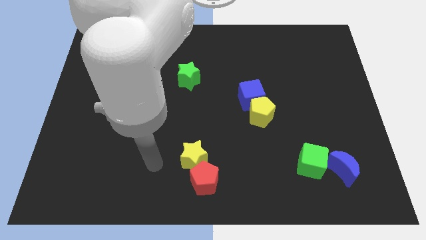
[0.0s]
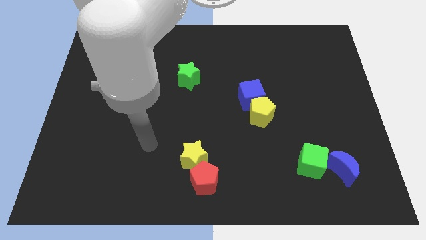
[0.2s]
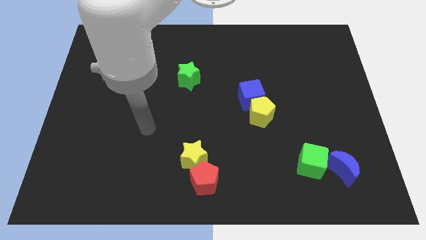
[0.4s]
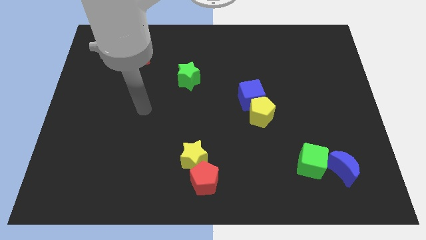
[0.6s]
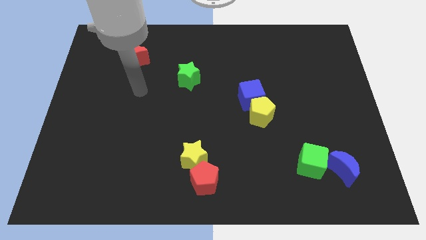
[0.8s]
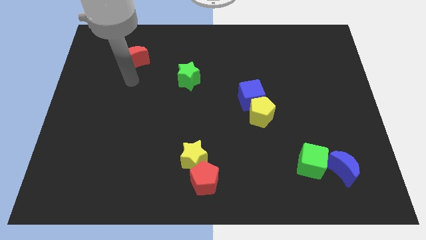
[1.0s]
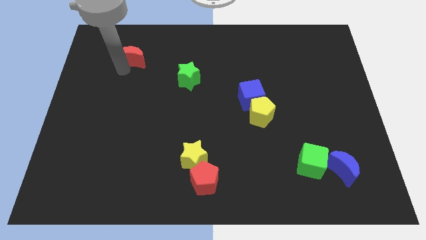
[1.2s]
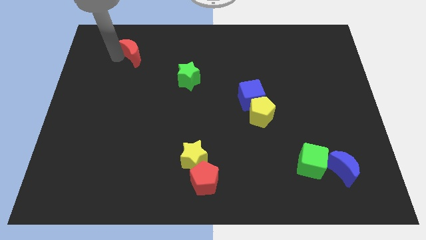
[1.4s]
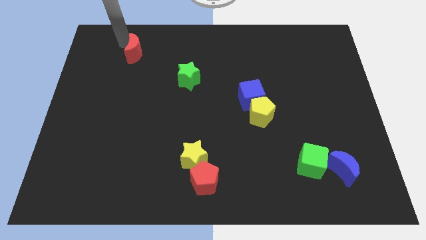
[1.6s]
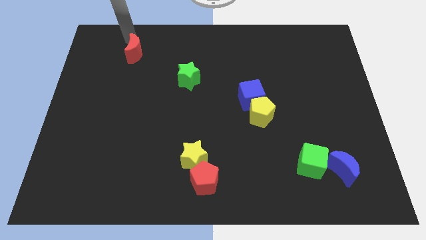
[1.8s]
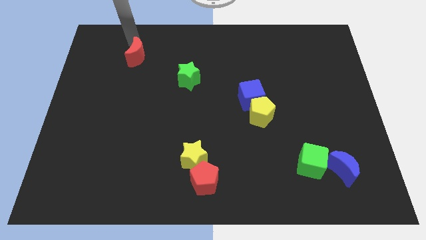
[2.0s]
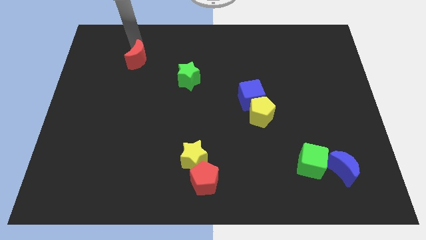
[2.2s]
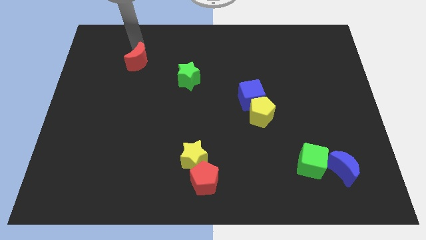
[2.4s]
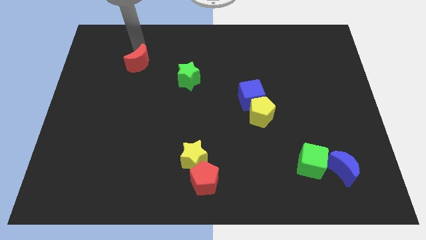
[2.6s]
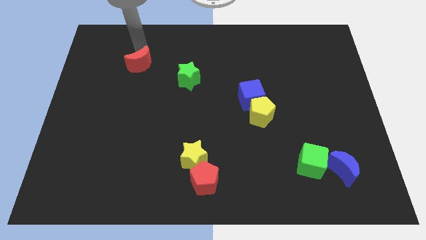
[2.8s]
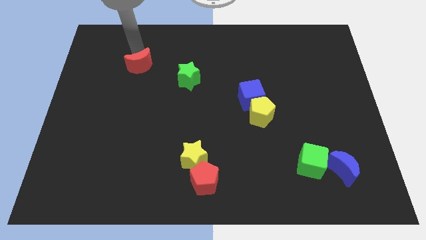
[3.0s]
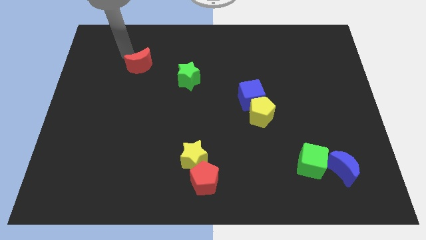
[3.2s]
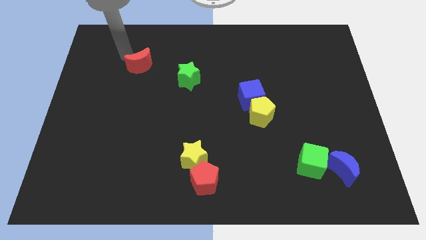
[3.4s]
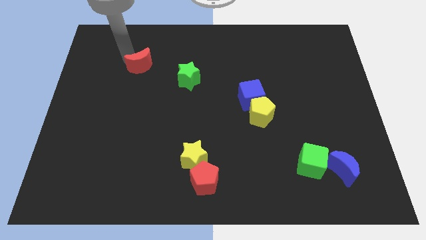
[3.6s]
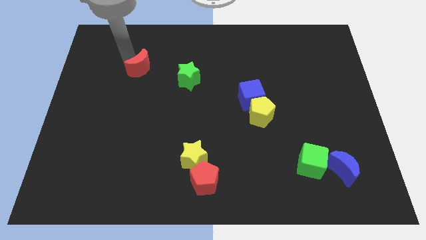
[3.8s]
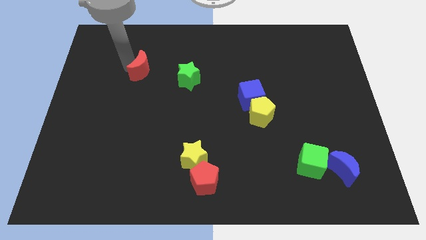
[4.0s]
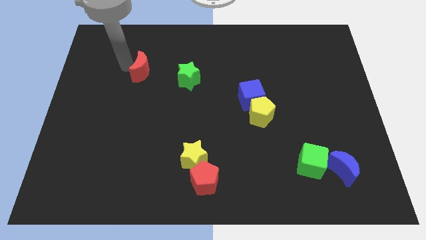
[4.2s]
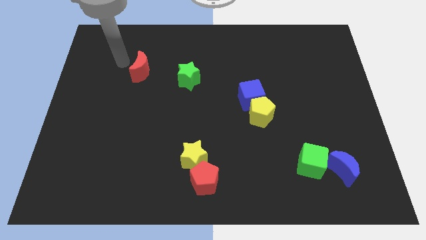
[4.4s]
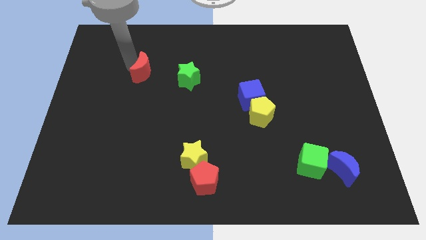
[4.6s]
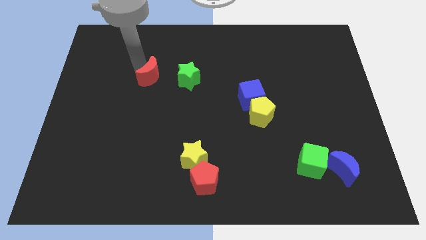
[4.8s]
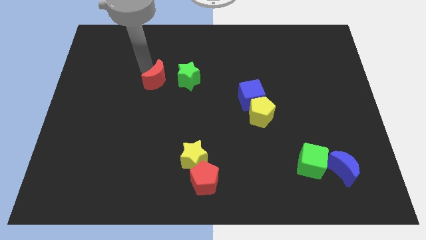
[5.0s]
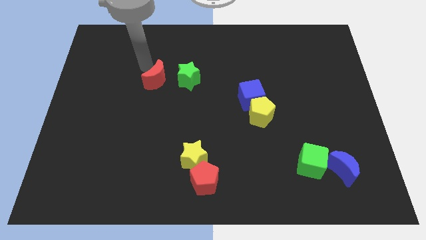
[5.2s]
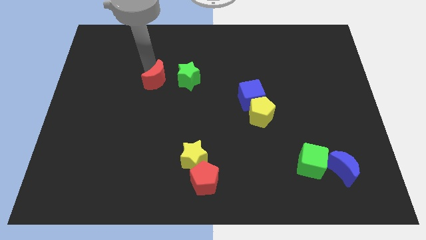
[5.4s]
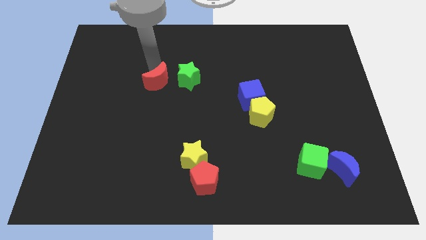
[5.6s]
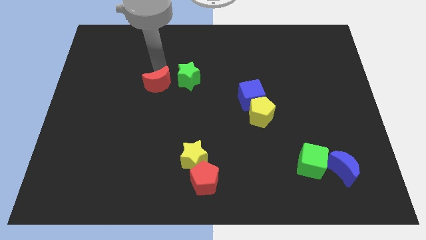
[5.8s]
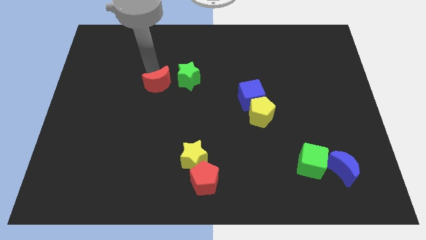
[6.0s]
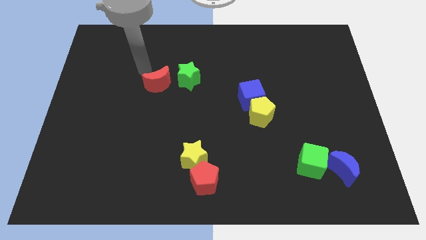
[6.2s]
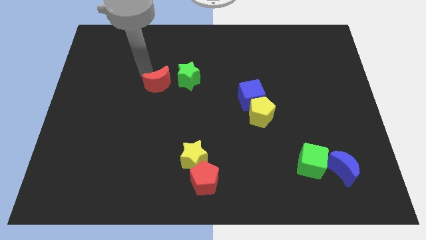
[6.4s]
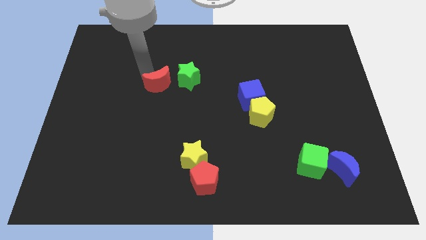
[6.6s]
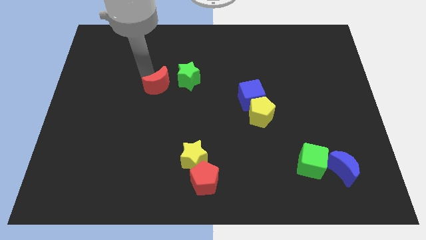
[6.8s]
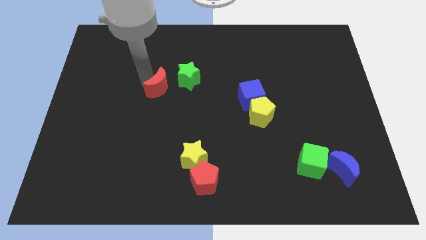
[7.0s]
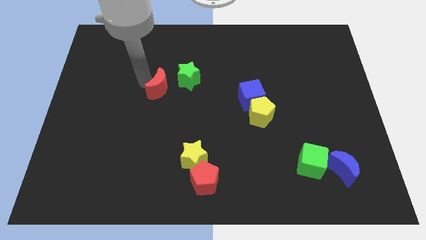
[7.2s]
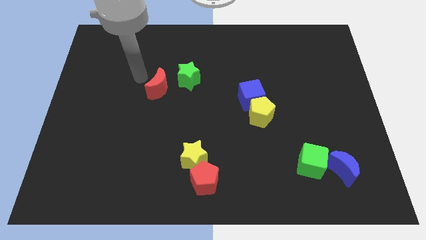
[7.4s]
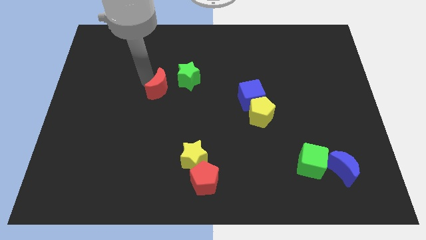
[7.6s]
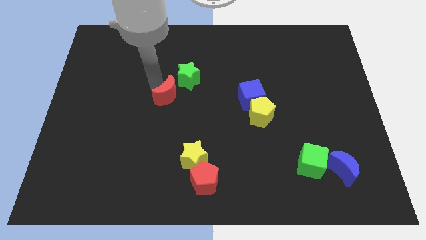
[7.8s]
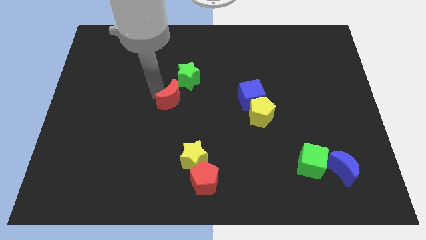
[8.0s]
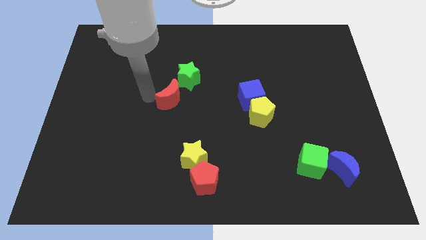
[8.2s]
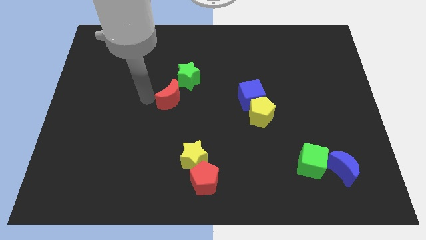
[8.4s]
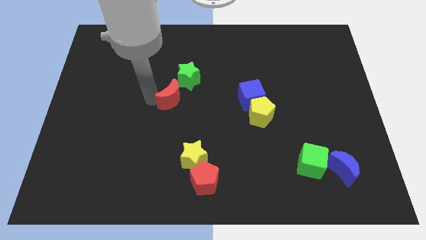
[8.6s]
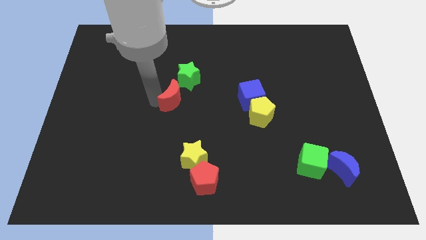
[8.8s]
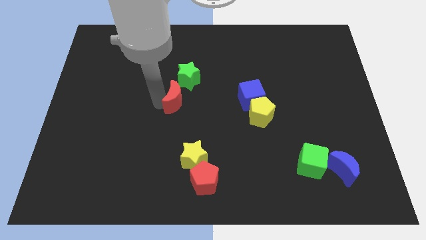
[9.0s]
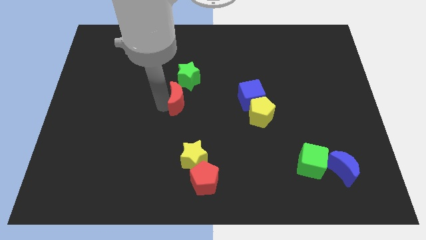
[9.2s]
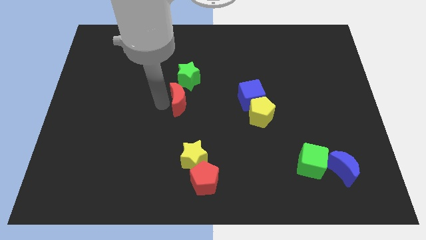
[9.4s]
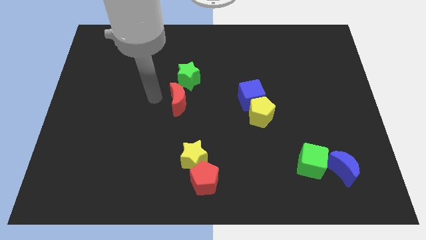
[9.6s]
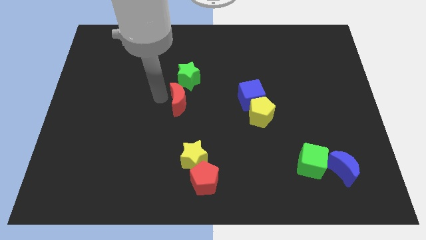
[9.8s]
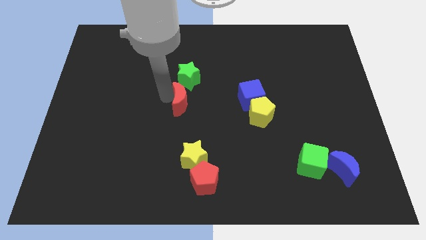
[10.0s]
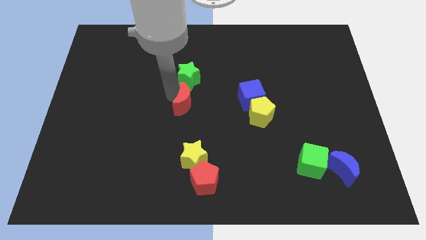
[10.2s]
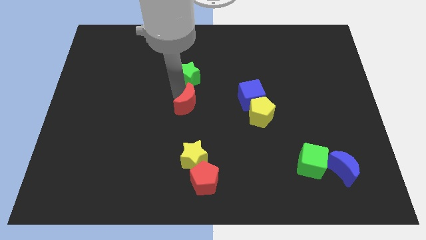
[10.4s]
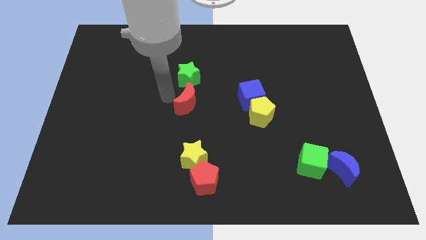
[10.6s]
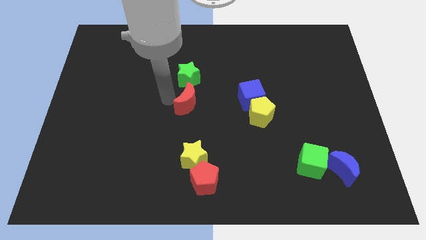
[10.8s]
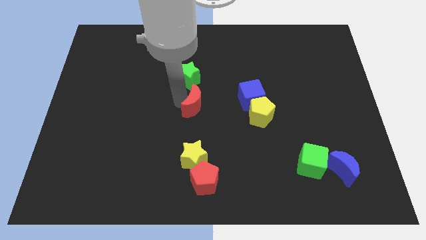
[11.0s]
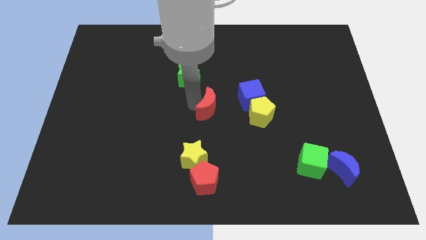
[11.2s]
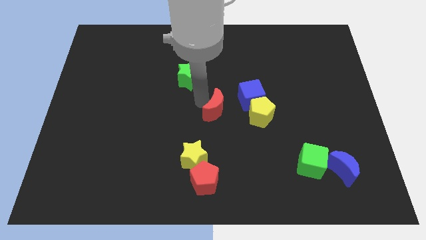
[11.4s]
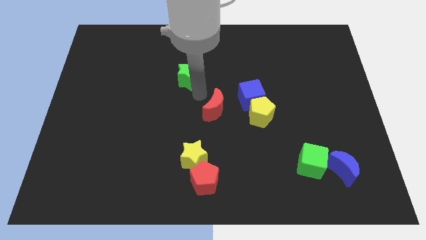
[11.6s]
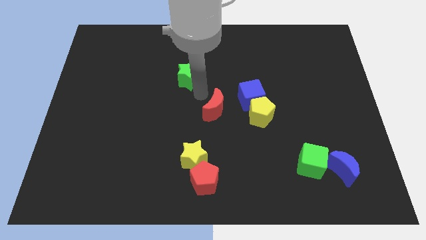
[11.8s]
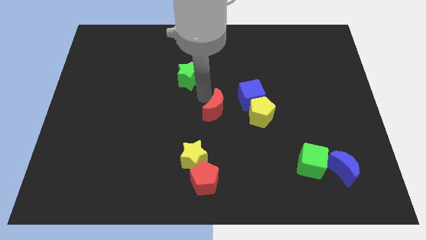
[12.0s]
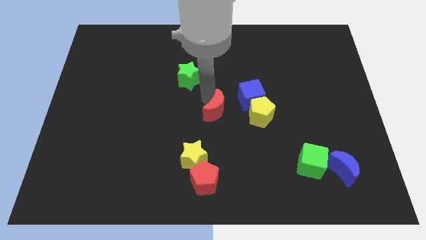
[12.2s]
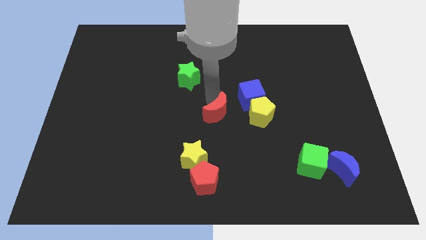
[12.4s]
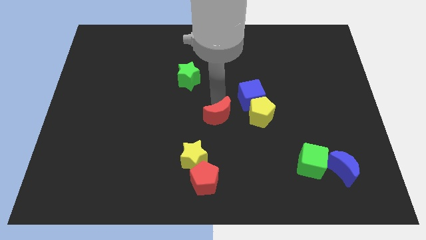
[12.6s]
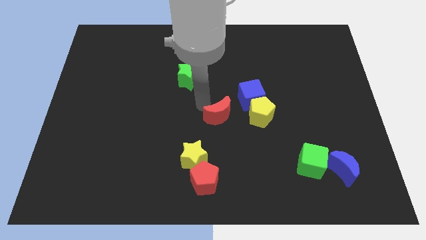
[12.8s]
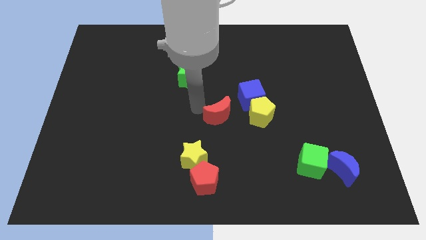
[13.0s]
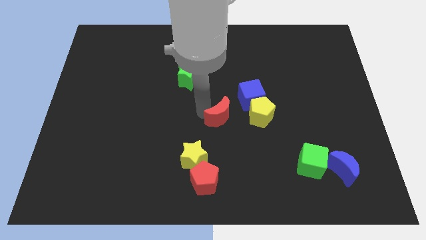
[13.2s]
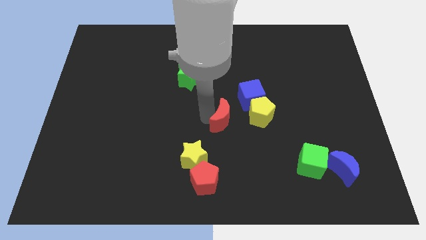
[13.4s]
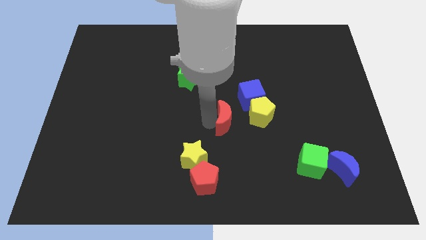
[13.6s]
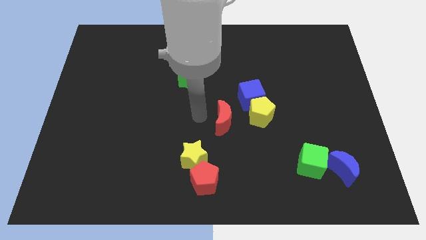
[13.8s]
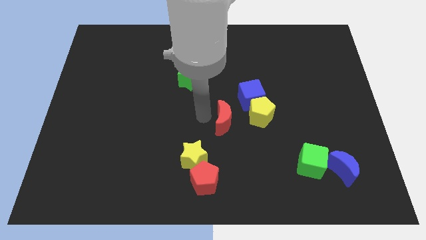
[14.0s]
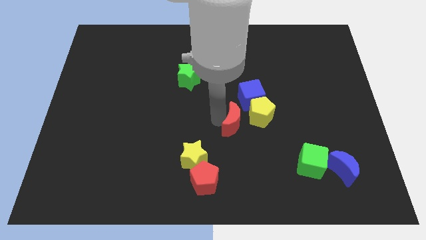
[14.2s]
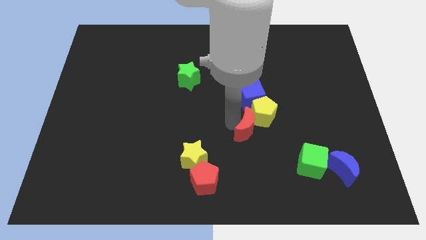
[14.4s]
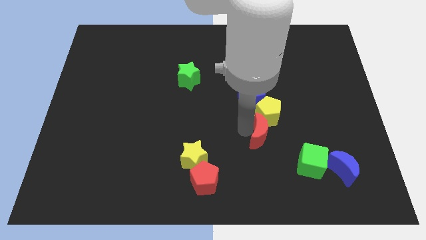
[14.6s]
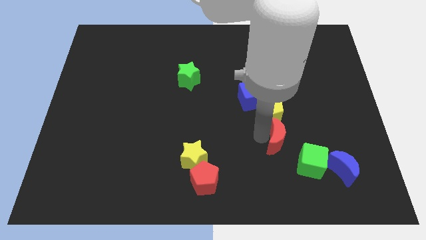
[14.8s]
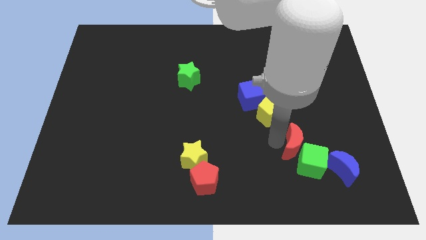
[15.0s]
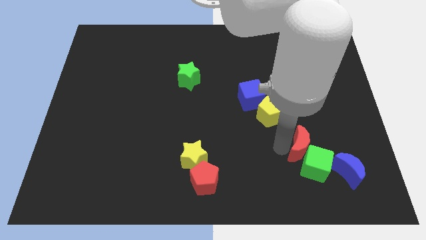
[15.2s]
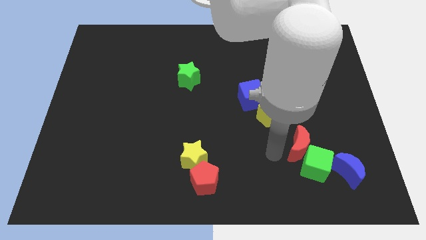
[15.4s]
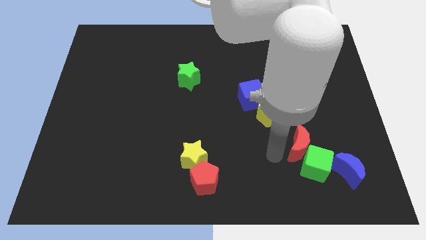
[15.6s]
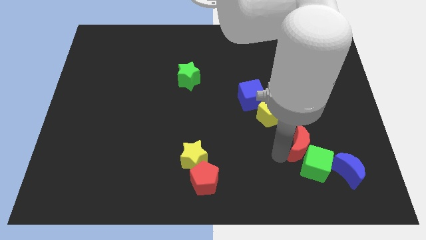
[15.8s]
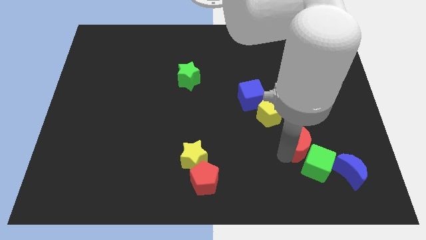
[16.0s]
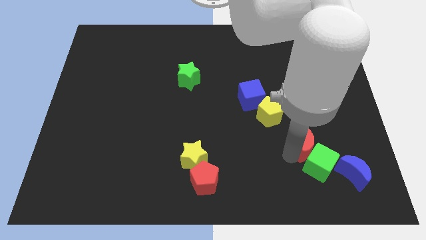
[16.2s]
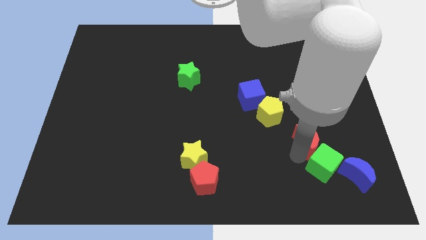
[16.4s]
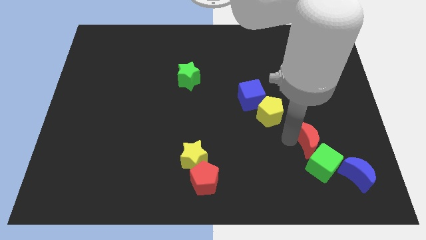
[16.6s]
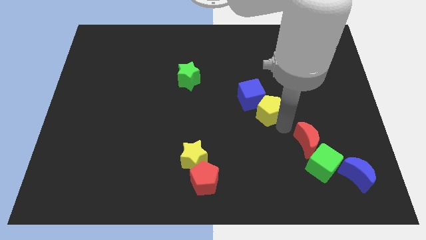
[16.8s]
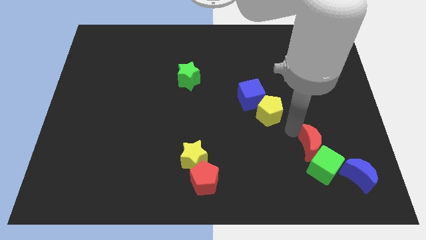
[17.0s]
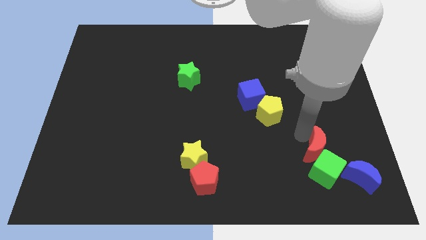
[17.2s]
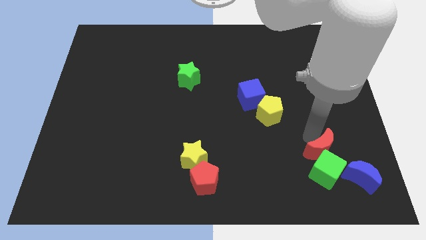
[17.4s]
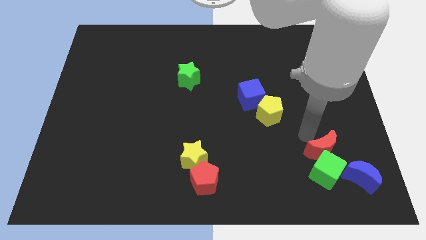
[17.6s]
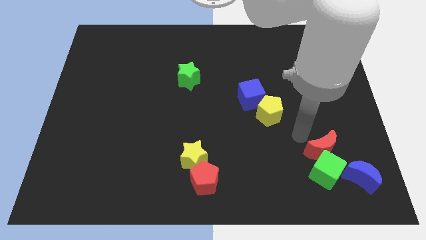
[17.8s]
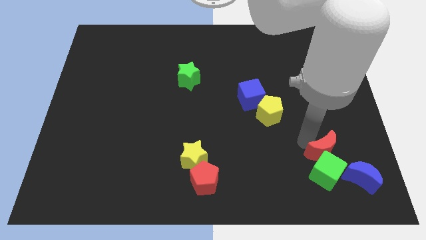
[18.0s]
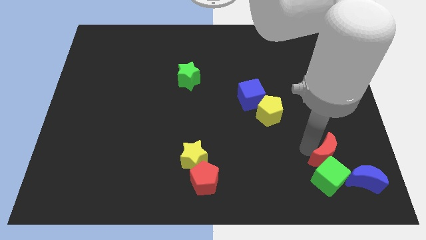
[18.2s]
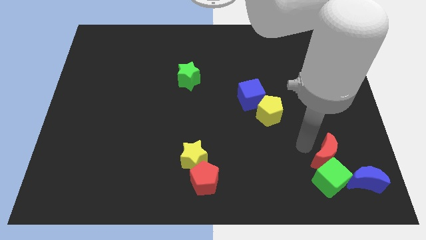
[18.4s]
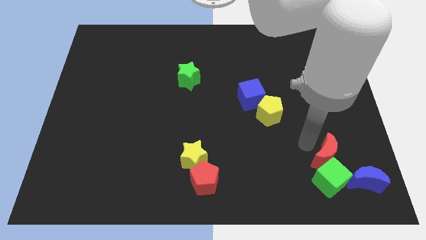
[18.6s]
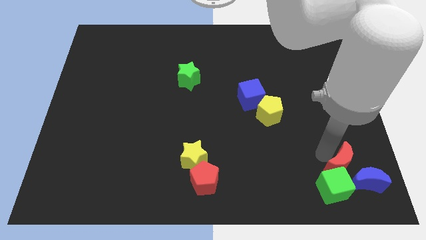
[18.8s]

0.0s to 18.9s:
move the red moon next to the blue moon
